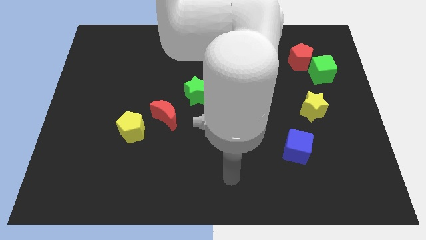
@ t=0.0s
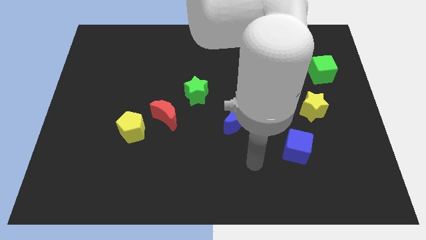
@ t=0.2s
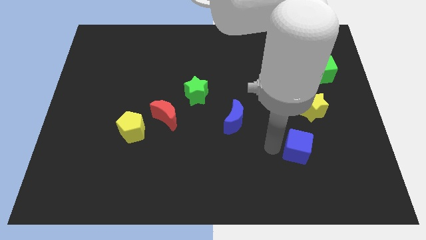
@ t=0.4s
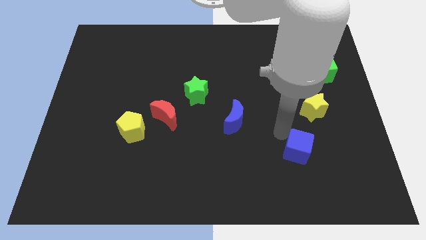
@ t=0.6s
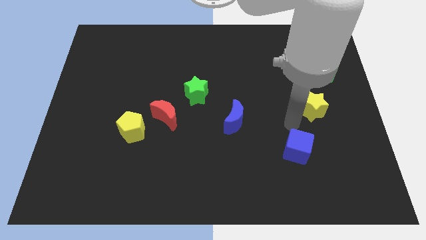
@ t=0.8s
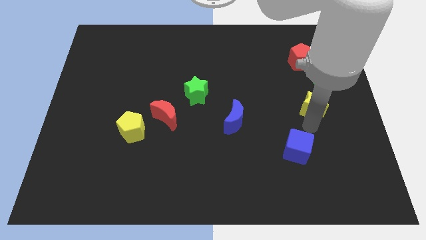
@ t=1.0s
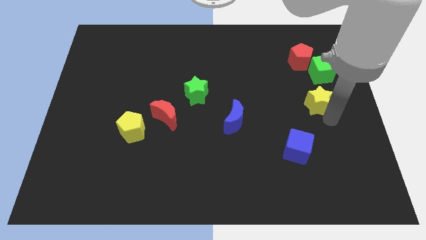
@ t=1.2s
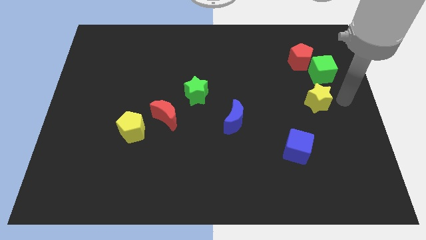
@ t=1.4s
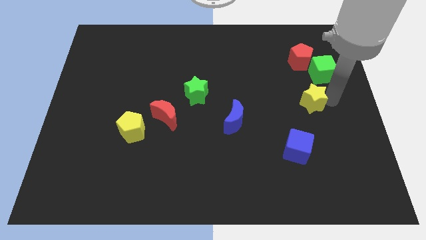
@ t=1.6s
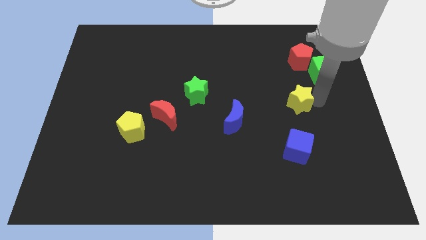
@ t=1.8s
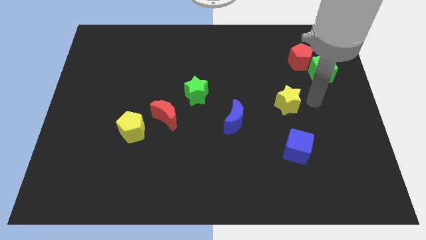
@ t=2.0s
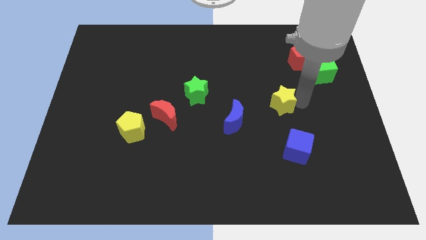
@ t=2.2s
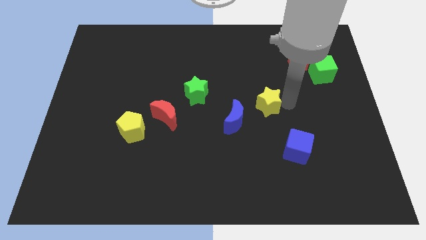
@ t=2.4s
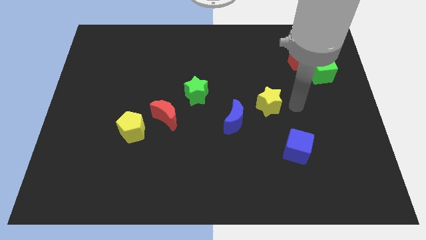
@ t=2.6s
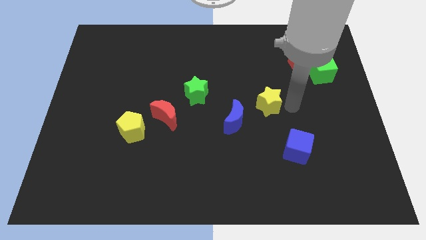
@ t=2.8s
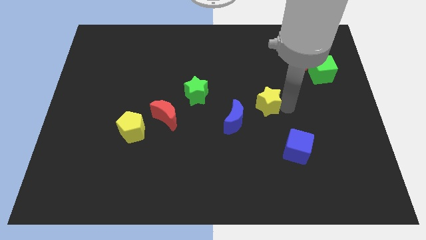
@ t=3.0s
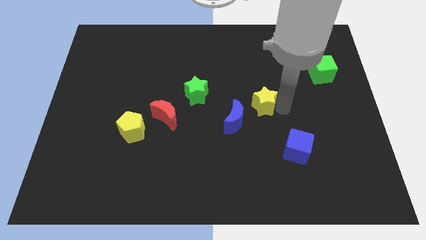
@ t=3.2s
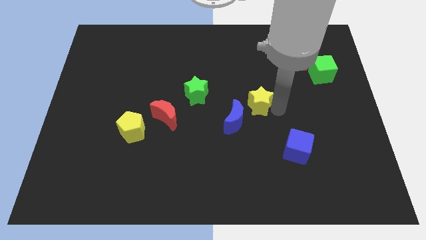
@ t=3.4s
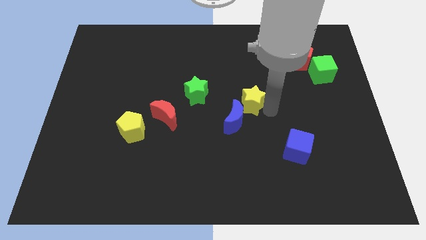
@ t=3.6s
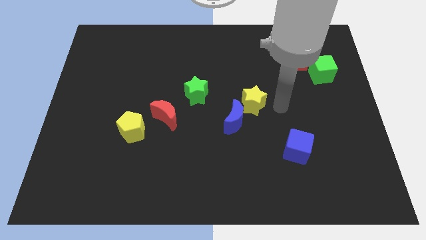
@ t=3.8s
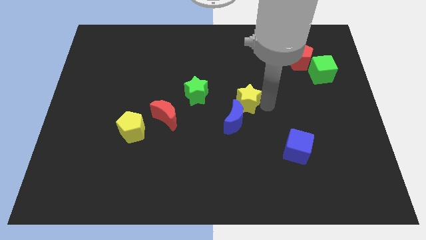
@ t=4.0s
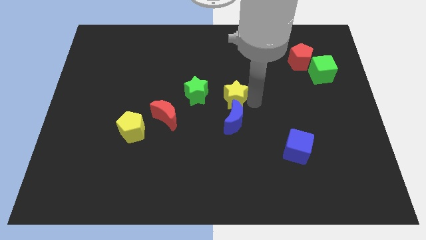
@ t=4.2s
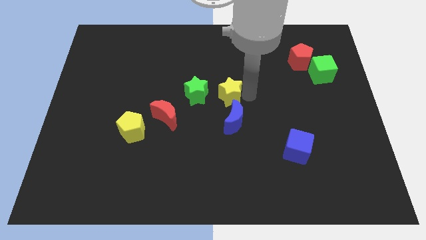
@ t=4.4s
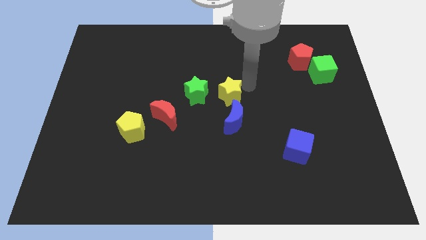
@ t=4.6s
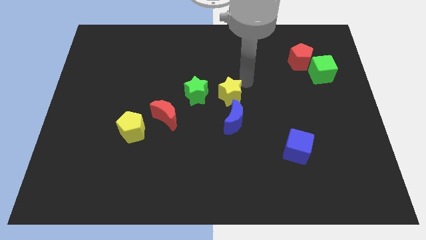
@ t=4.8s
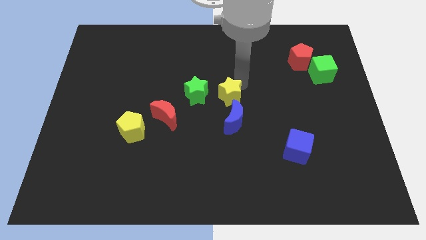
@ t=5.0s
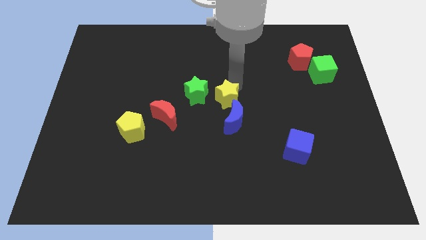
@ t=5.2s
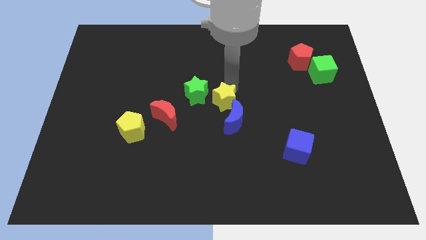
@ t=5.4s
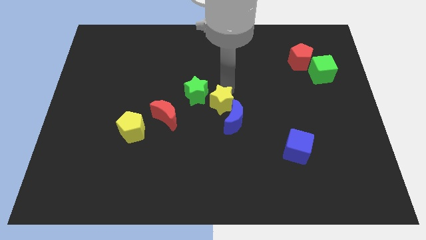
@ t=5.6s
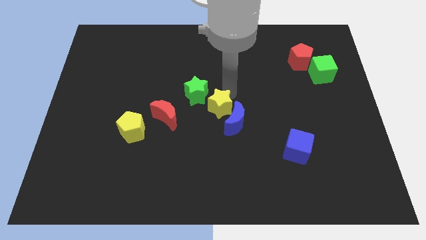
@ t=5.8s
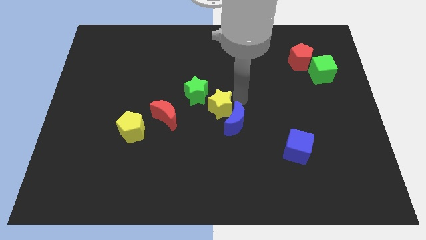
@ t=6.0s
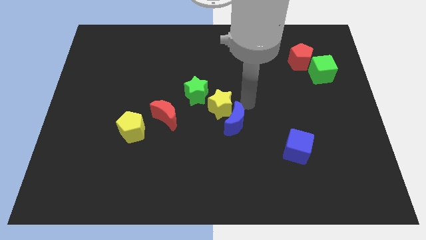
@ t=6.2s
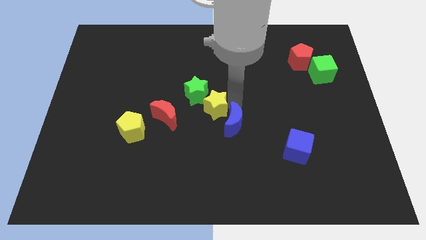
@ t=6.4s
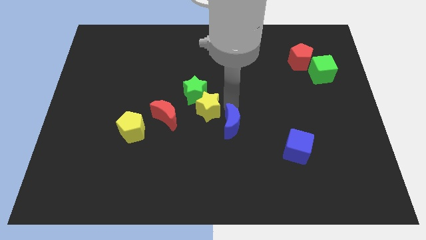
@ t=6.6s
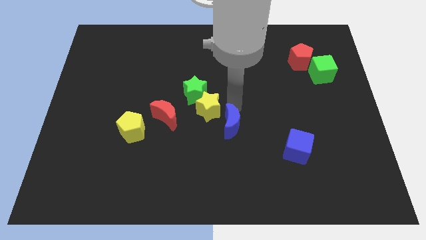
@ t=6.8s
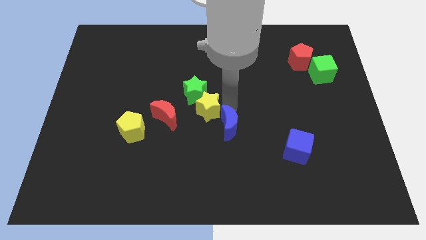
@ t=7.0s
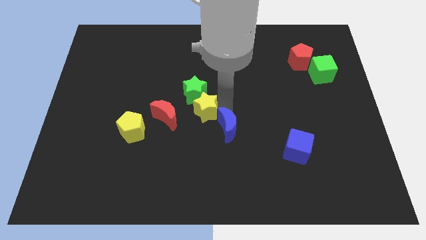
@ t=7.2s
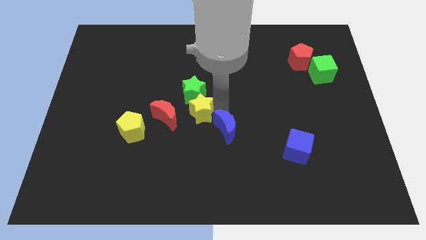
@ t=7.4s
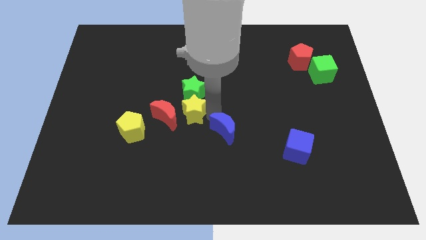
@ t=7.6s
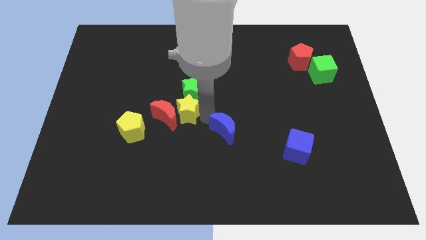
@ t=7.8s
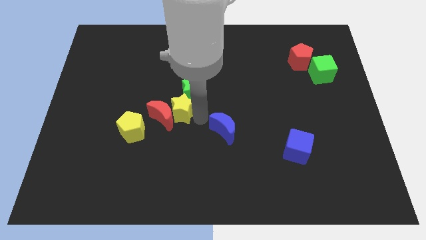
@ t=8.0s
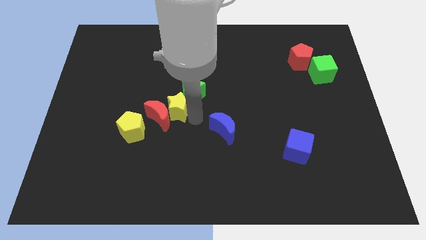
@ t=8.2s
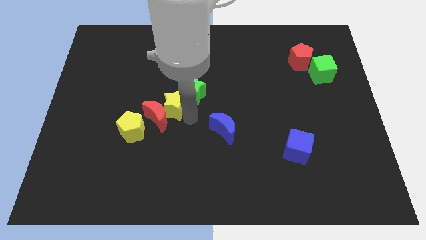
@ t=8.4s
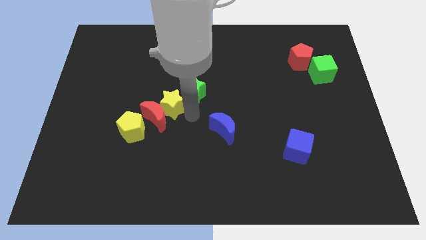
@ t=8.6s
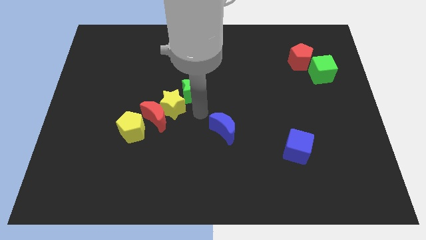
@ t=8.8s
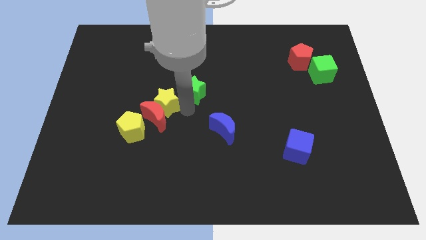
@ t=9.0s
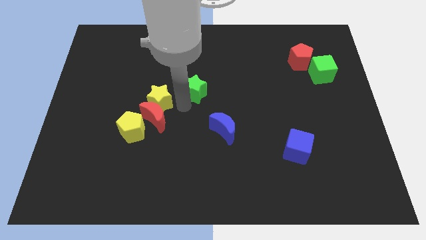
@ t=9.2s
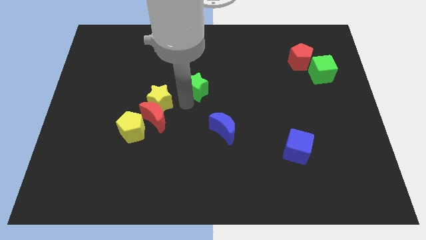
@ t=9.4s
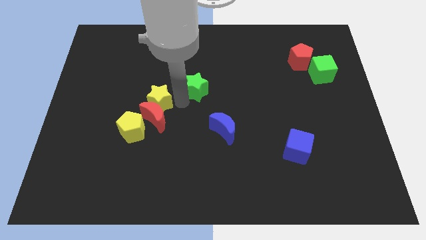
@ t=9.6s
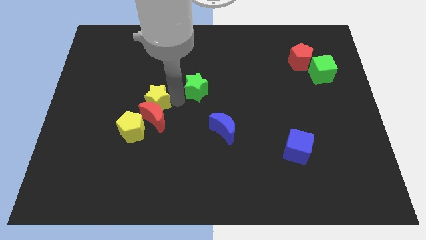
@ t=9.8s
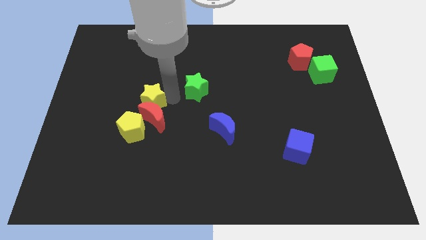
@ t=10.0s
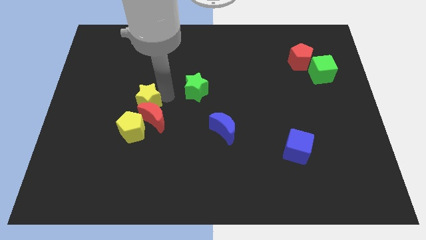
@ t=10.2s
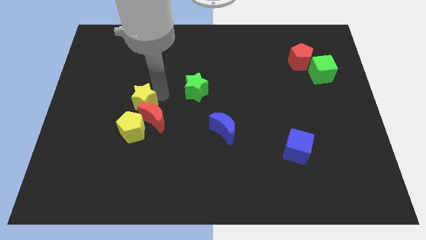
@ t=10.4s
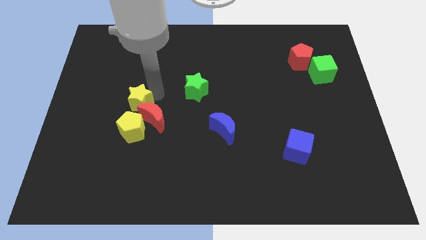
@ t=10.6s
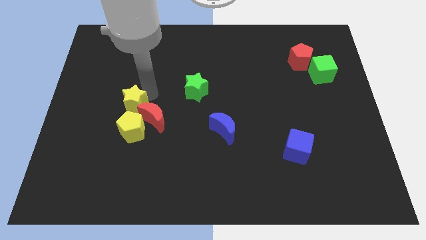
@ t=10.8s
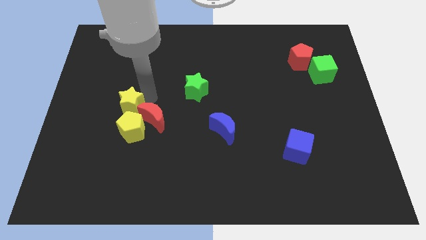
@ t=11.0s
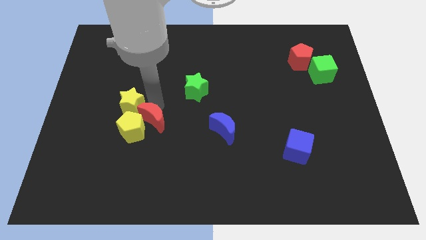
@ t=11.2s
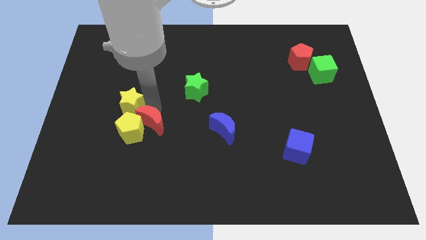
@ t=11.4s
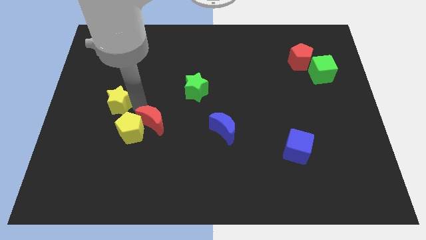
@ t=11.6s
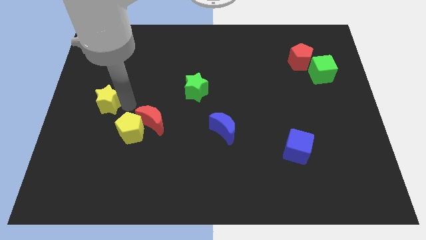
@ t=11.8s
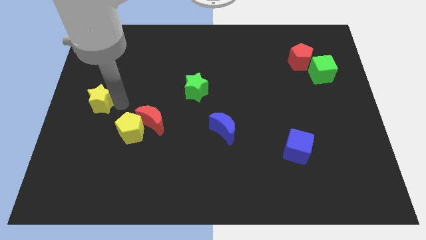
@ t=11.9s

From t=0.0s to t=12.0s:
slide the yellow star to the left side of the board
